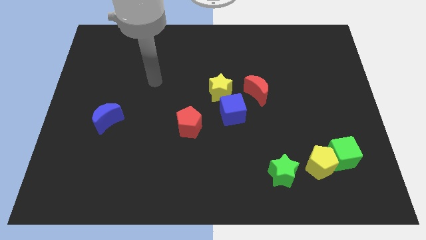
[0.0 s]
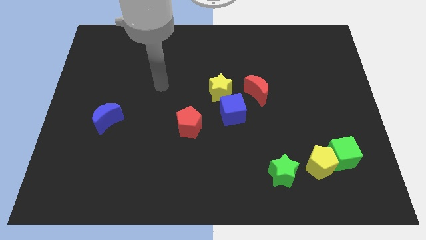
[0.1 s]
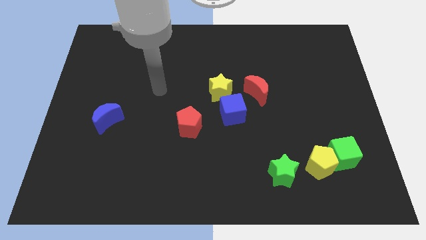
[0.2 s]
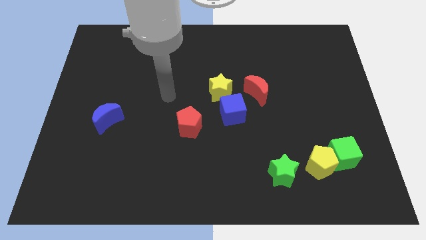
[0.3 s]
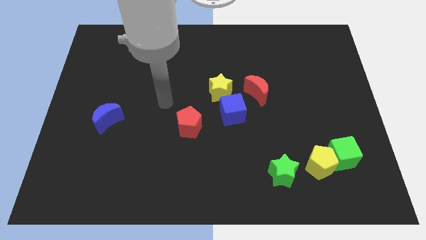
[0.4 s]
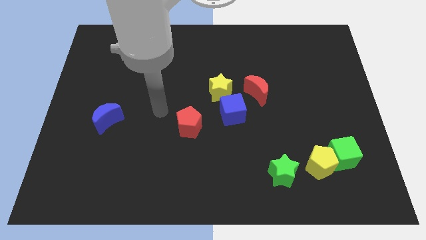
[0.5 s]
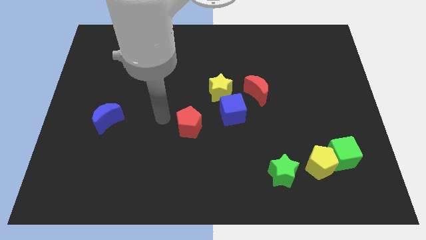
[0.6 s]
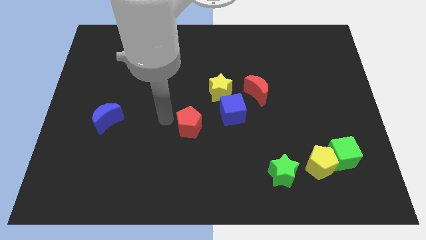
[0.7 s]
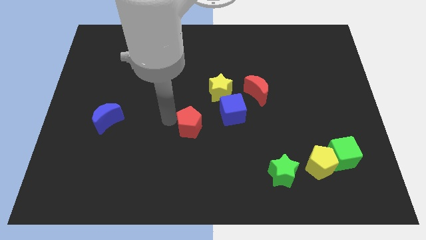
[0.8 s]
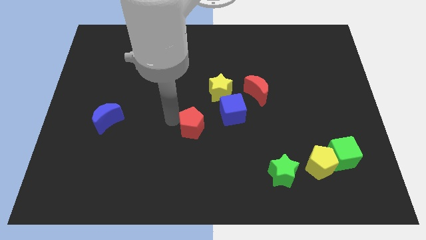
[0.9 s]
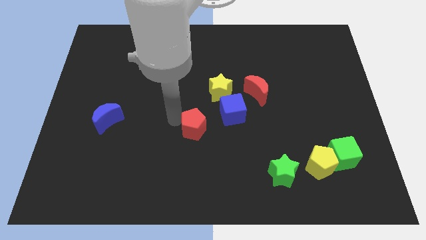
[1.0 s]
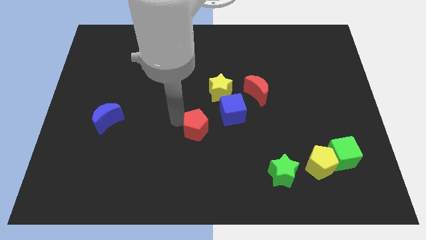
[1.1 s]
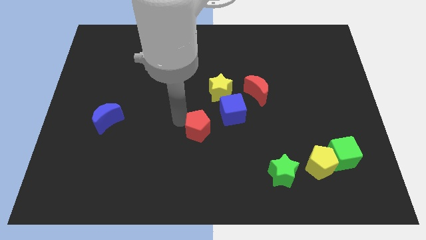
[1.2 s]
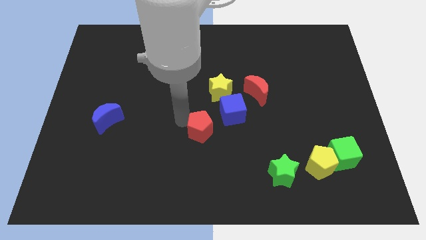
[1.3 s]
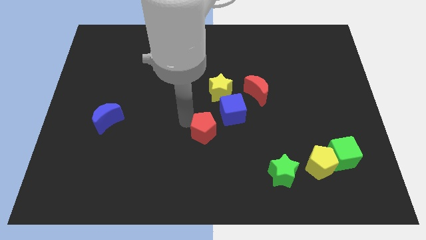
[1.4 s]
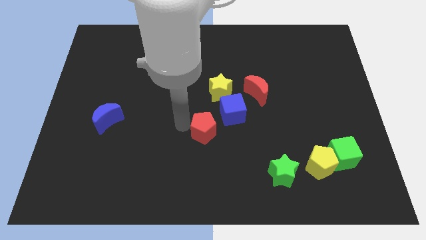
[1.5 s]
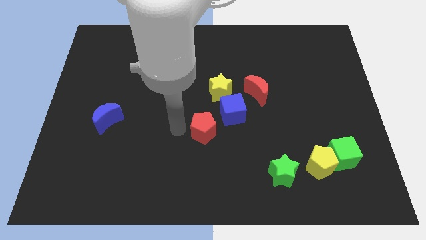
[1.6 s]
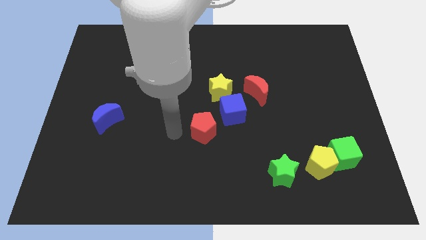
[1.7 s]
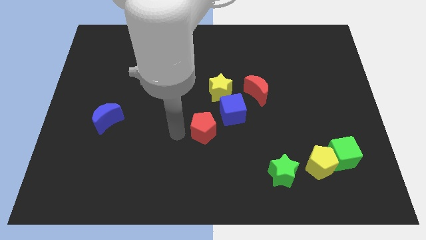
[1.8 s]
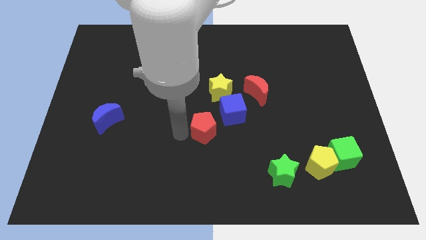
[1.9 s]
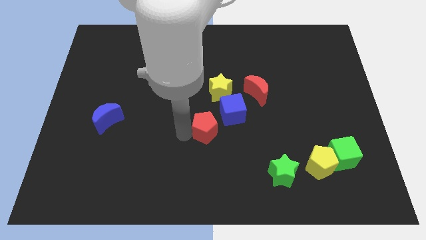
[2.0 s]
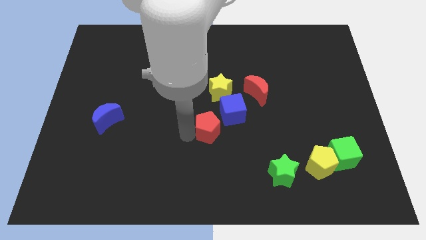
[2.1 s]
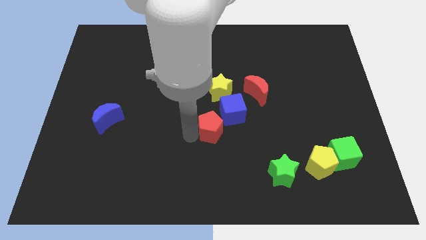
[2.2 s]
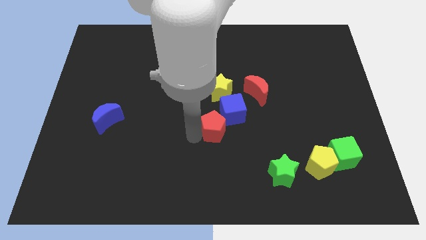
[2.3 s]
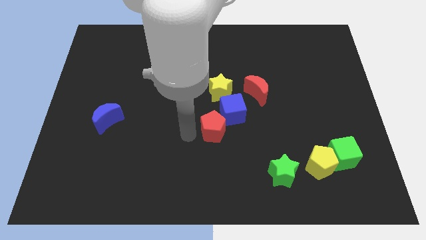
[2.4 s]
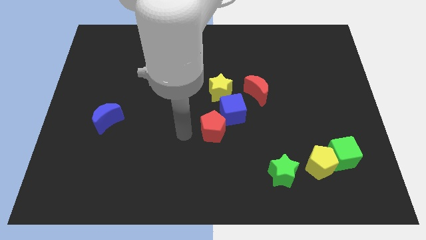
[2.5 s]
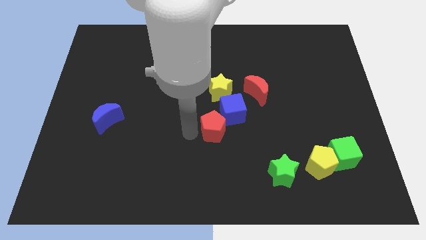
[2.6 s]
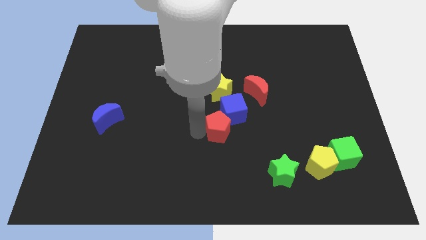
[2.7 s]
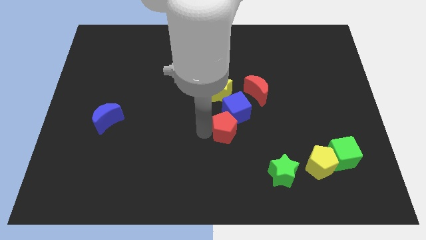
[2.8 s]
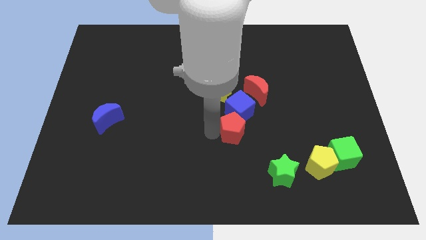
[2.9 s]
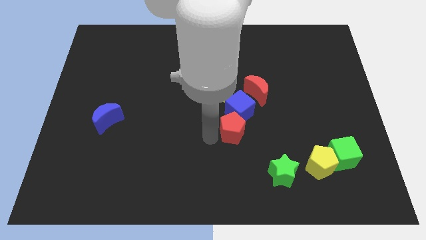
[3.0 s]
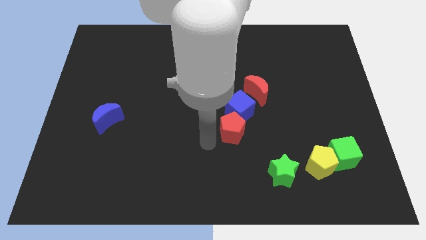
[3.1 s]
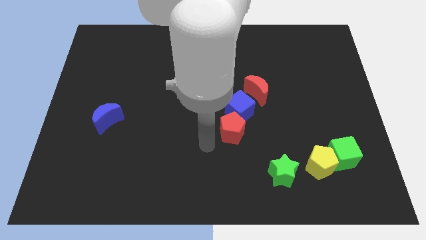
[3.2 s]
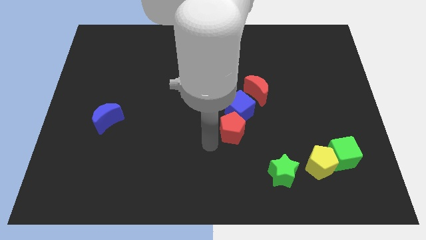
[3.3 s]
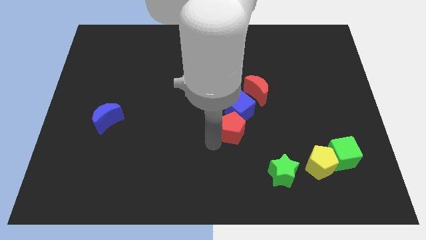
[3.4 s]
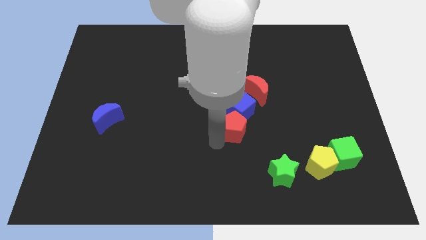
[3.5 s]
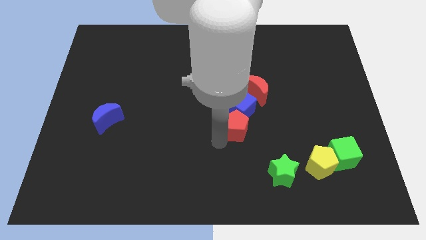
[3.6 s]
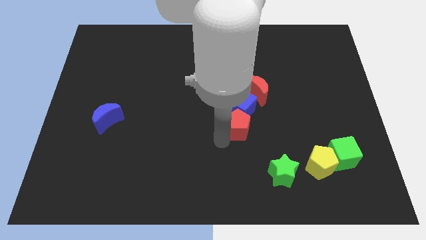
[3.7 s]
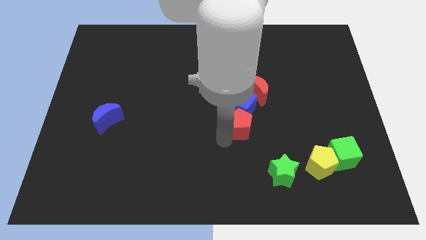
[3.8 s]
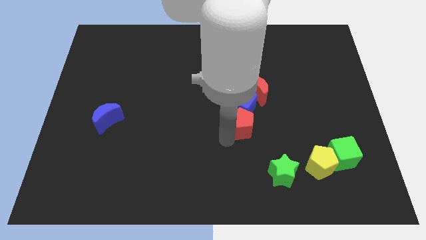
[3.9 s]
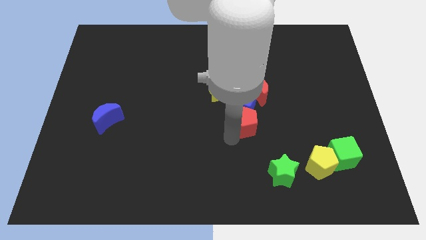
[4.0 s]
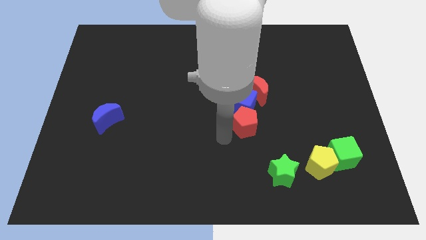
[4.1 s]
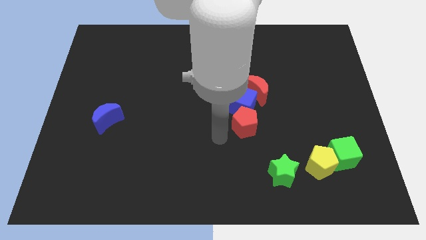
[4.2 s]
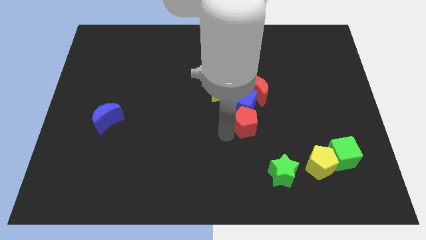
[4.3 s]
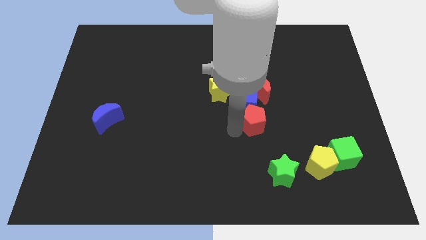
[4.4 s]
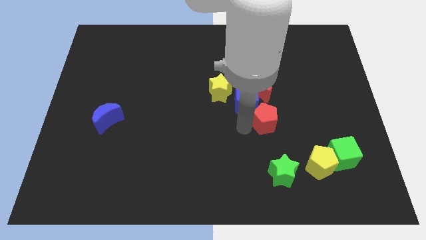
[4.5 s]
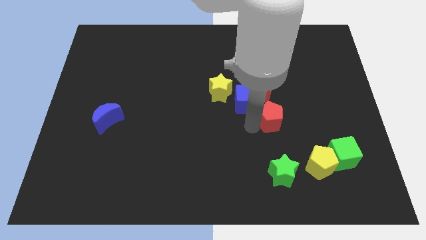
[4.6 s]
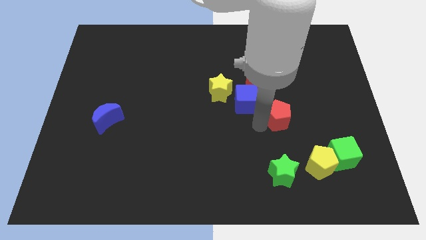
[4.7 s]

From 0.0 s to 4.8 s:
slide the red pentagon to the bottom right of the red moon

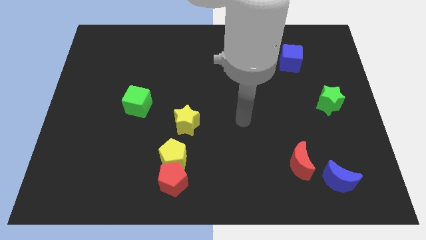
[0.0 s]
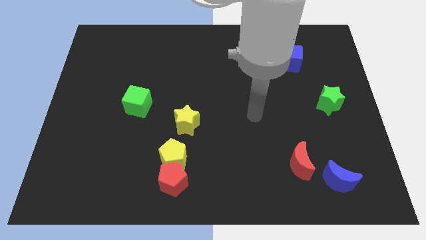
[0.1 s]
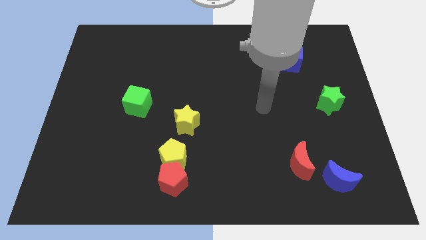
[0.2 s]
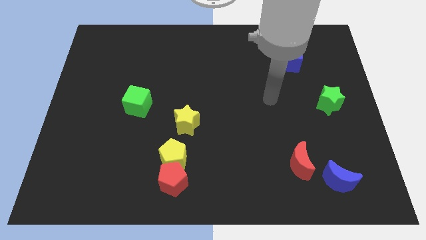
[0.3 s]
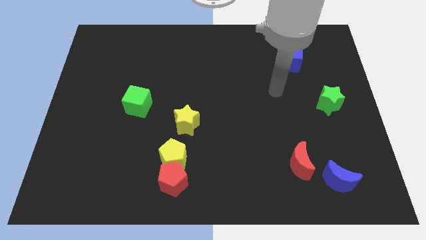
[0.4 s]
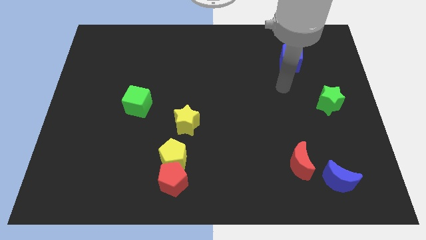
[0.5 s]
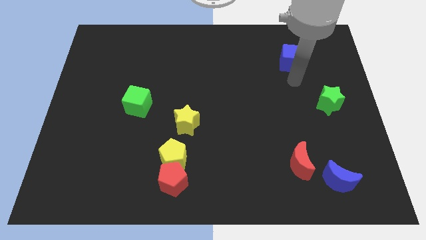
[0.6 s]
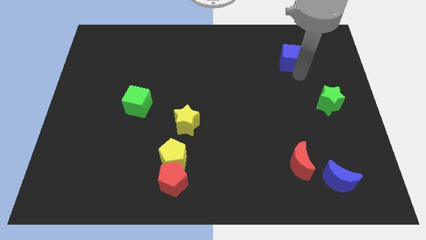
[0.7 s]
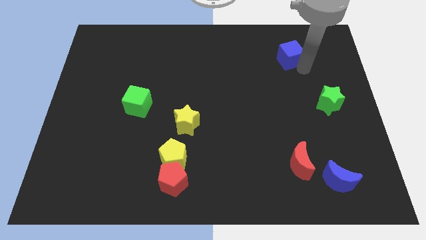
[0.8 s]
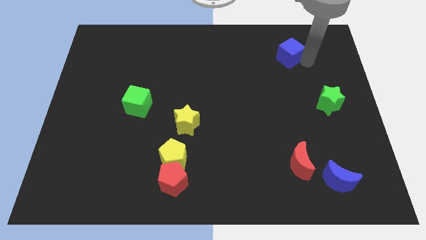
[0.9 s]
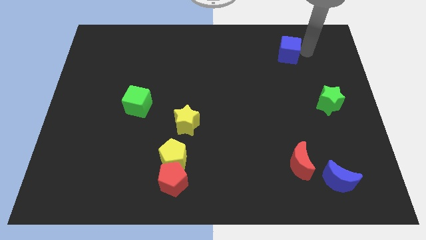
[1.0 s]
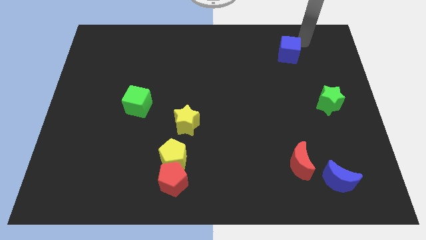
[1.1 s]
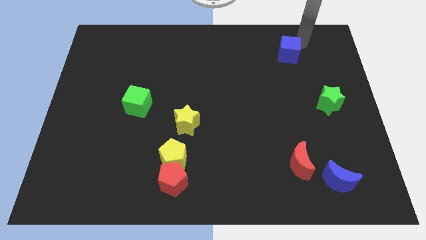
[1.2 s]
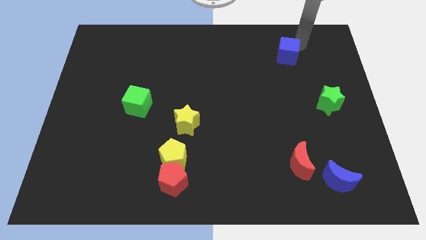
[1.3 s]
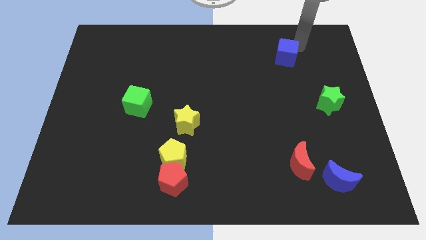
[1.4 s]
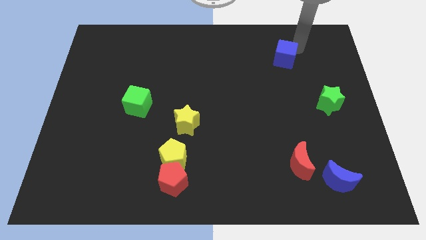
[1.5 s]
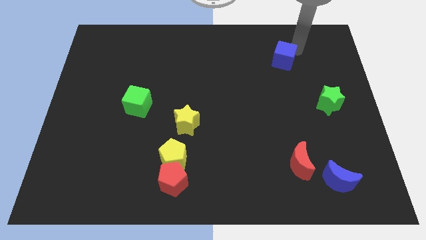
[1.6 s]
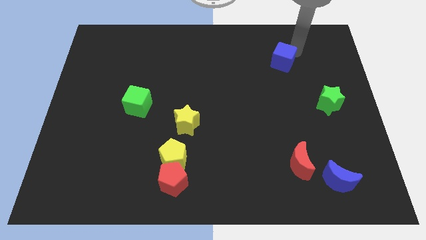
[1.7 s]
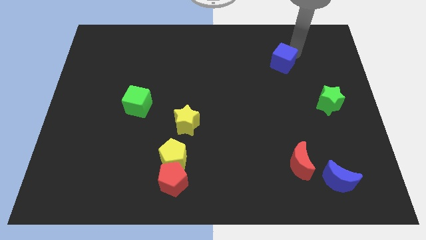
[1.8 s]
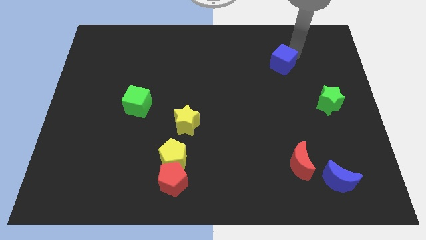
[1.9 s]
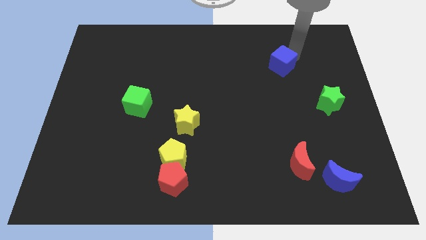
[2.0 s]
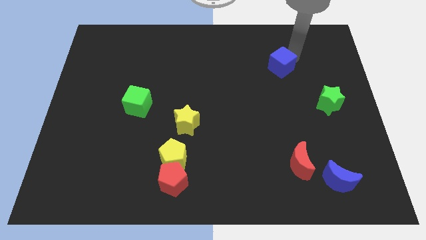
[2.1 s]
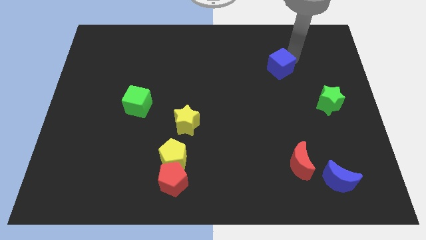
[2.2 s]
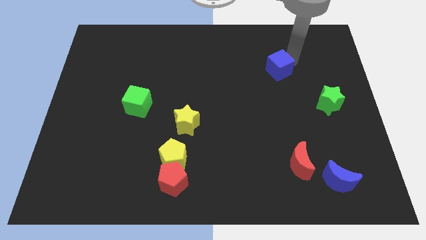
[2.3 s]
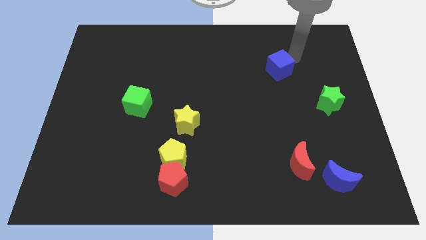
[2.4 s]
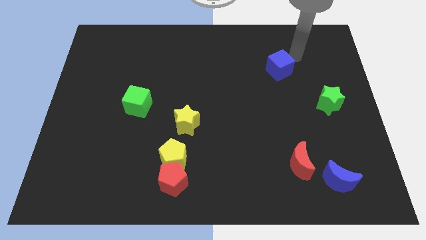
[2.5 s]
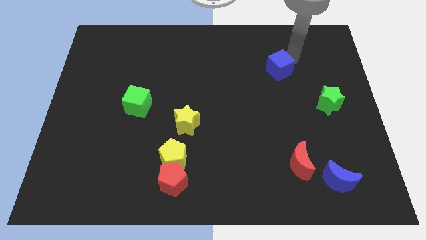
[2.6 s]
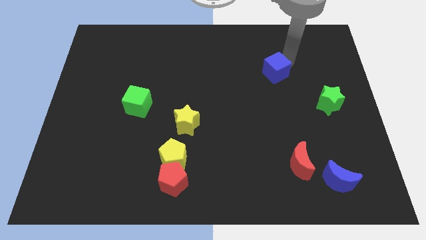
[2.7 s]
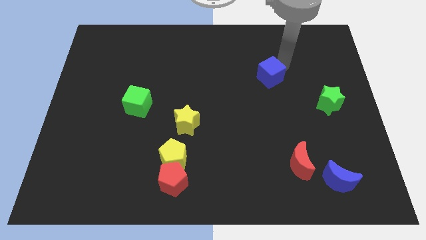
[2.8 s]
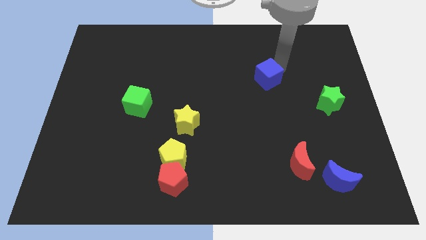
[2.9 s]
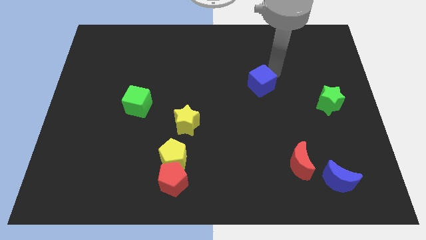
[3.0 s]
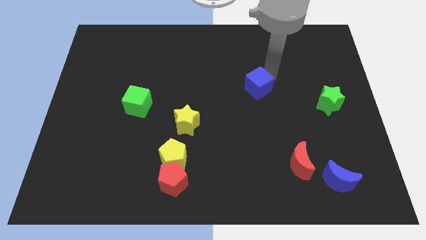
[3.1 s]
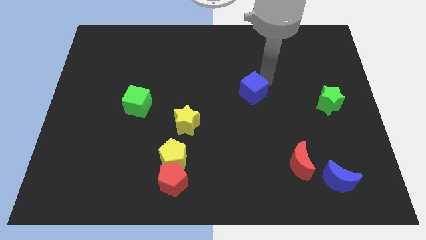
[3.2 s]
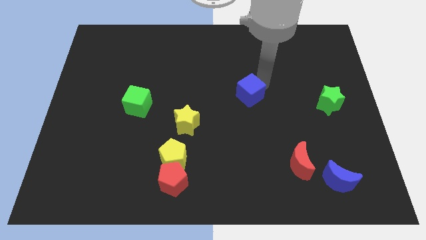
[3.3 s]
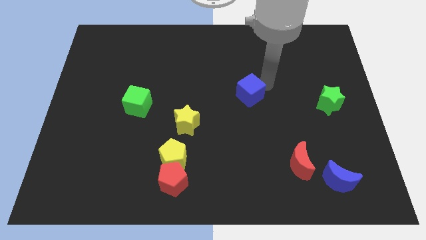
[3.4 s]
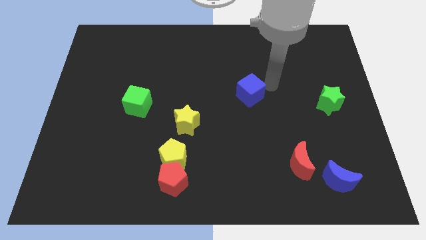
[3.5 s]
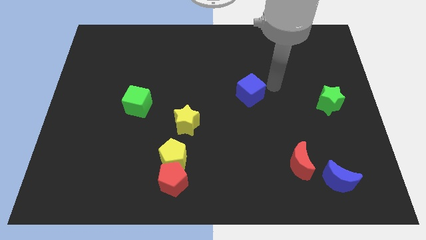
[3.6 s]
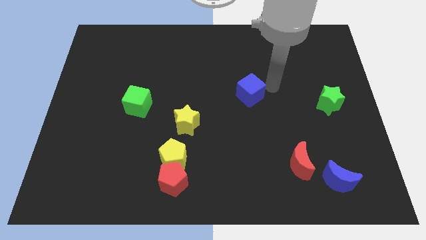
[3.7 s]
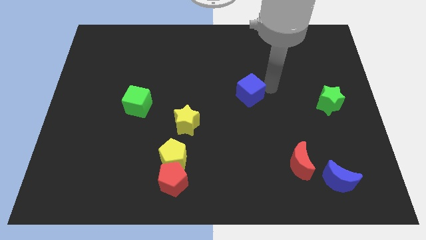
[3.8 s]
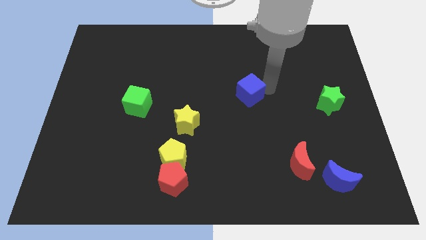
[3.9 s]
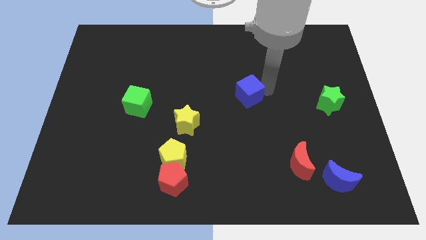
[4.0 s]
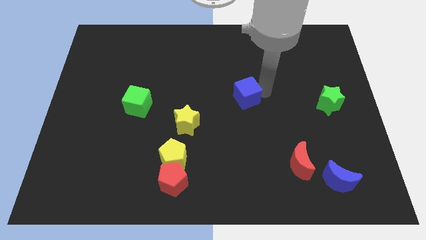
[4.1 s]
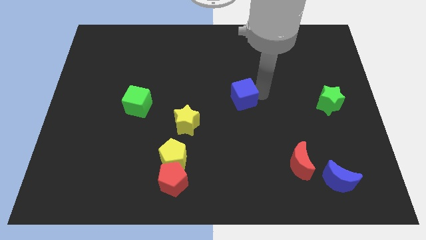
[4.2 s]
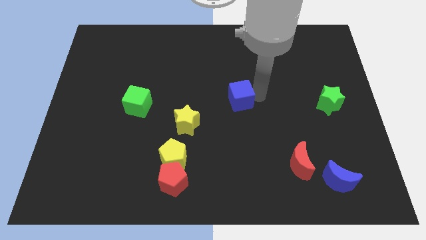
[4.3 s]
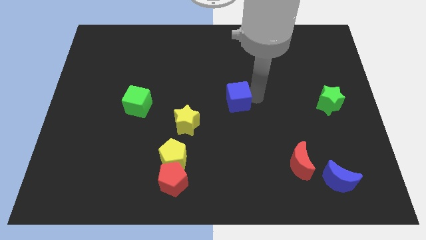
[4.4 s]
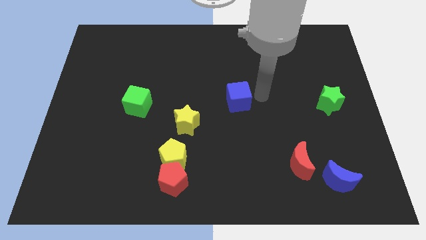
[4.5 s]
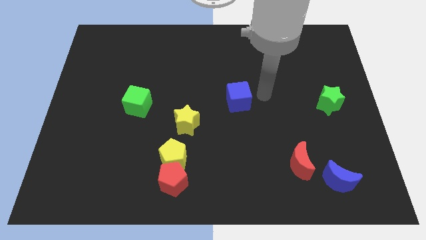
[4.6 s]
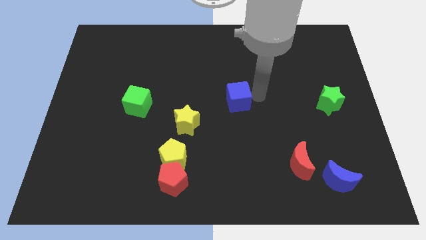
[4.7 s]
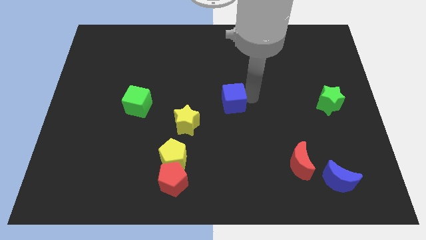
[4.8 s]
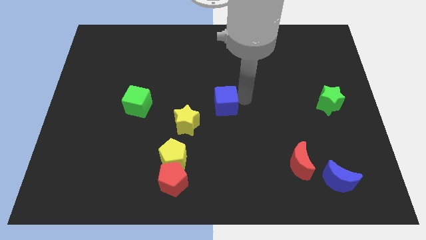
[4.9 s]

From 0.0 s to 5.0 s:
move the blue cube to the top right side of the yellow star
